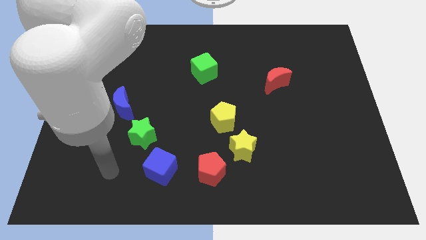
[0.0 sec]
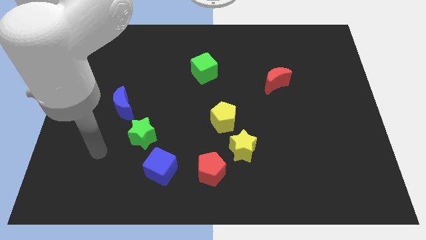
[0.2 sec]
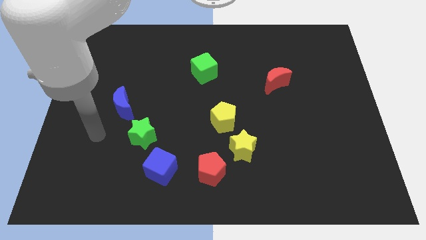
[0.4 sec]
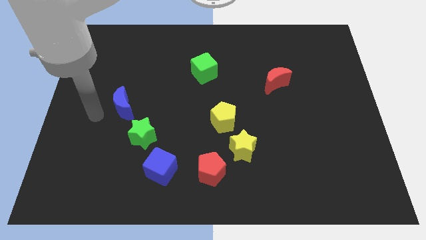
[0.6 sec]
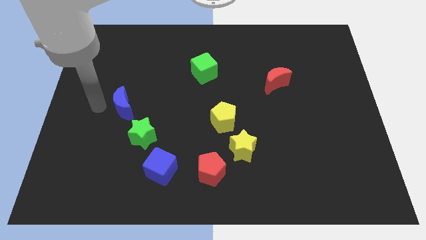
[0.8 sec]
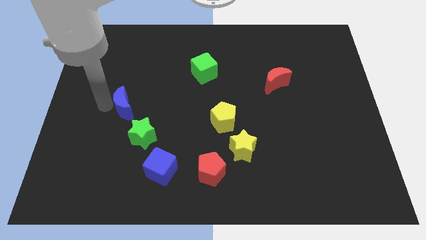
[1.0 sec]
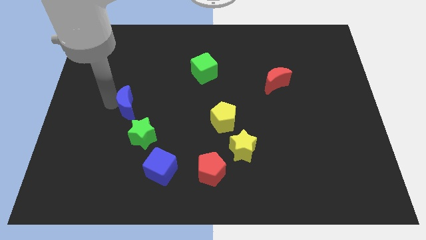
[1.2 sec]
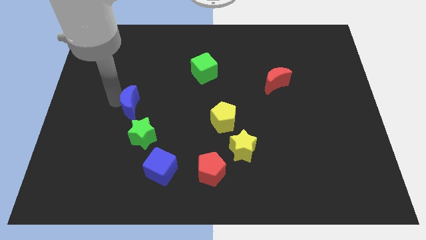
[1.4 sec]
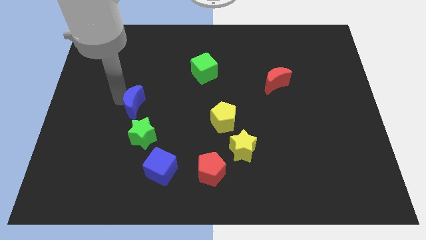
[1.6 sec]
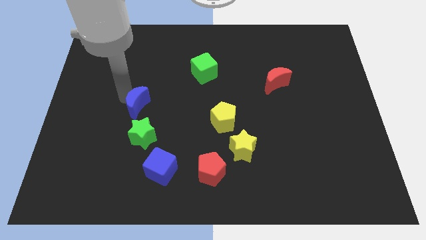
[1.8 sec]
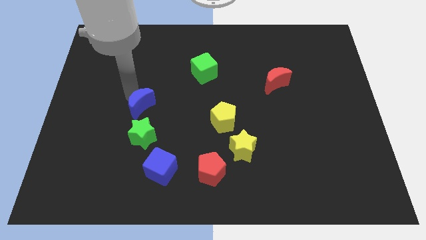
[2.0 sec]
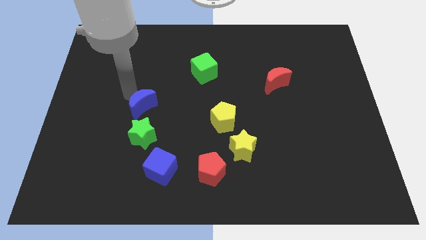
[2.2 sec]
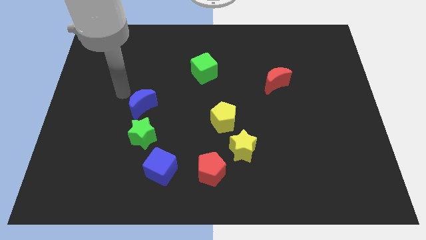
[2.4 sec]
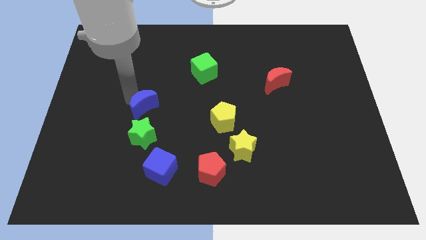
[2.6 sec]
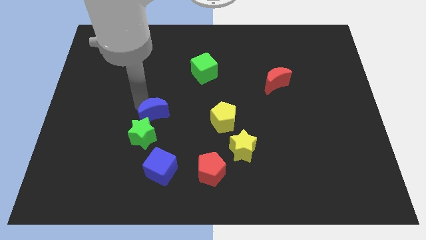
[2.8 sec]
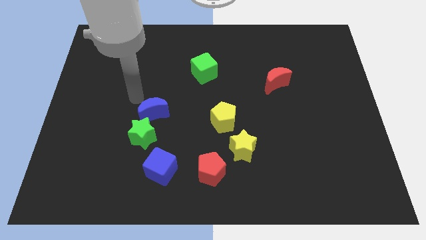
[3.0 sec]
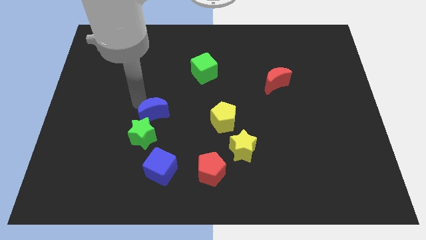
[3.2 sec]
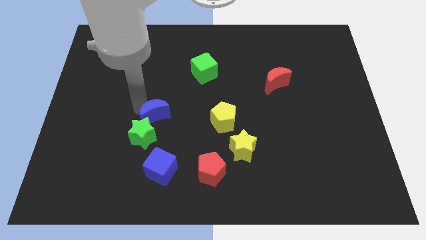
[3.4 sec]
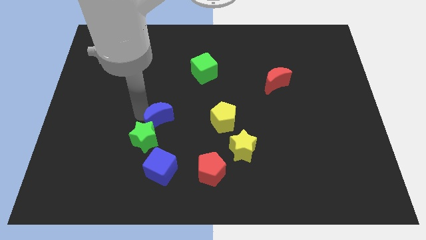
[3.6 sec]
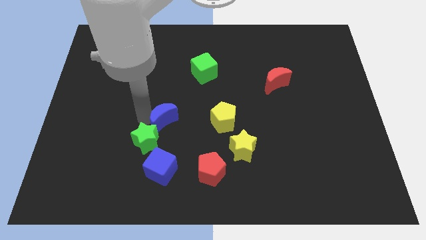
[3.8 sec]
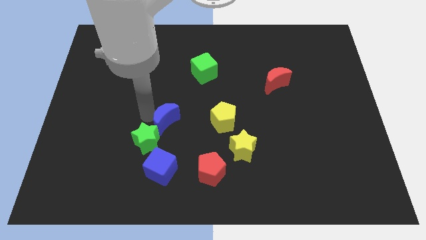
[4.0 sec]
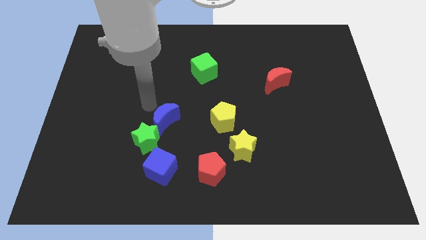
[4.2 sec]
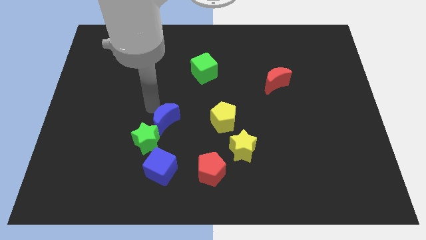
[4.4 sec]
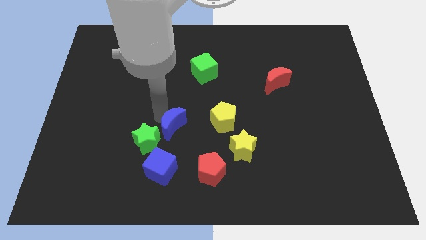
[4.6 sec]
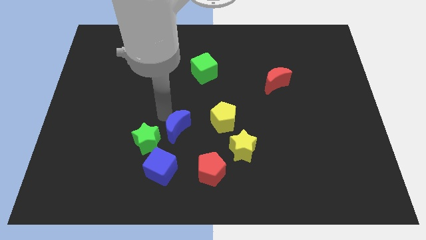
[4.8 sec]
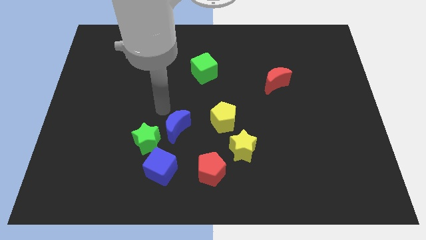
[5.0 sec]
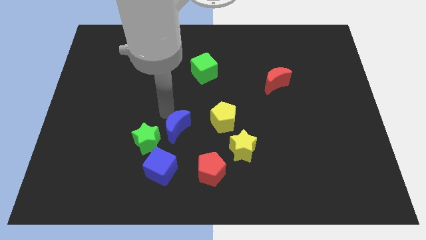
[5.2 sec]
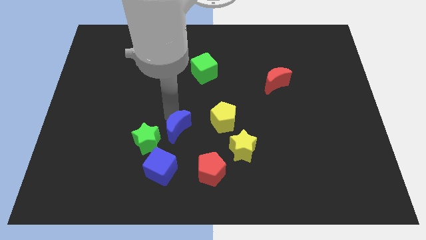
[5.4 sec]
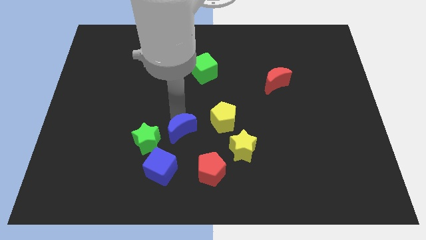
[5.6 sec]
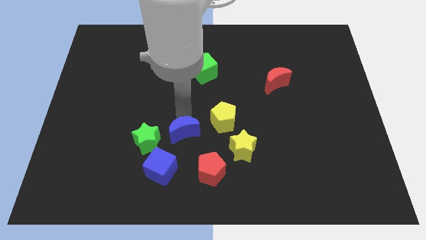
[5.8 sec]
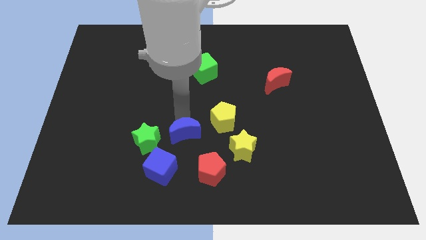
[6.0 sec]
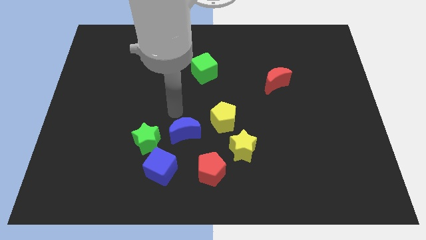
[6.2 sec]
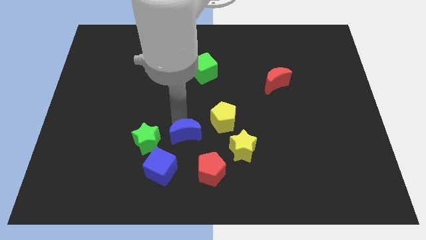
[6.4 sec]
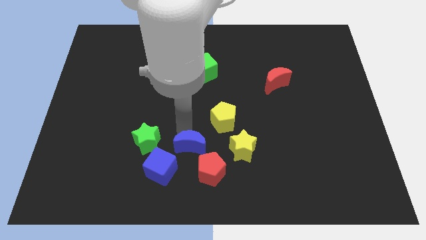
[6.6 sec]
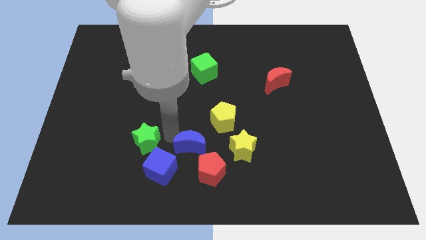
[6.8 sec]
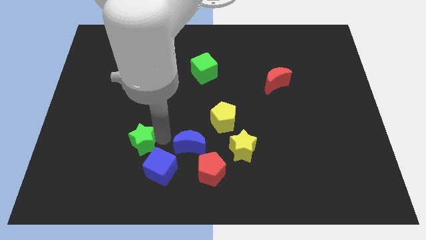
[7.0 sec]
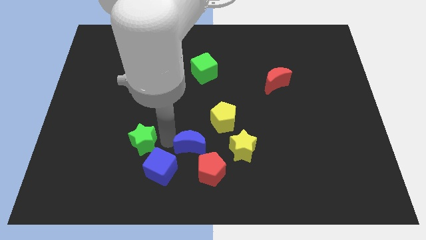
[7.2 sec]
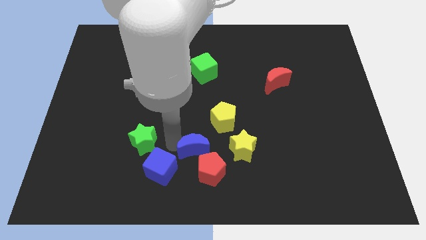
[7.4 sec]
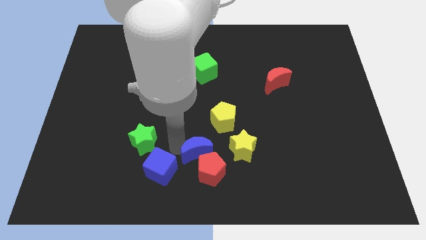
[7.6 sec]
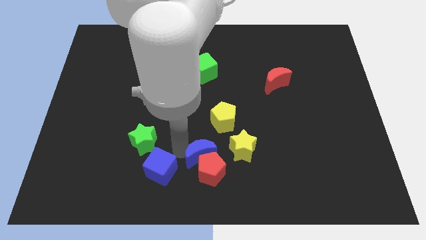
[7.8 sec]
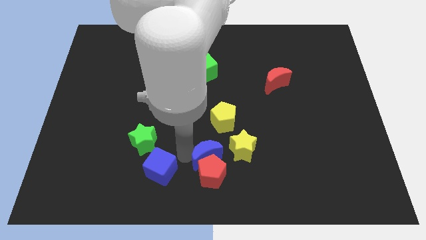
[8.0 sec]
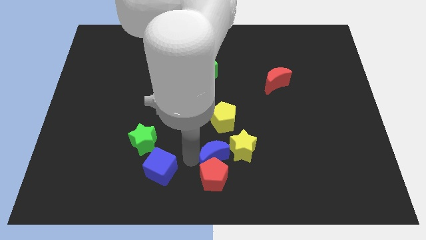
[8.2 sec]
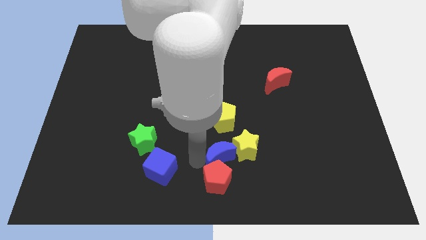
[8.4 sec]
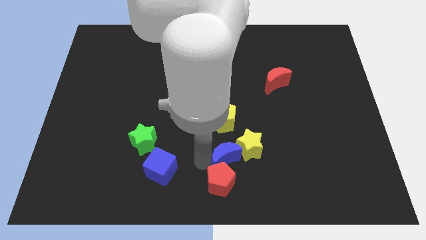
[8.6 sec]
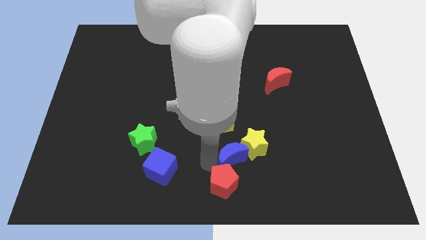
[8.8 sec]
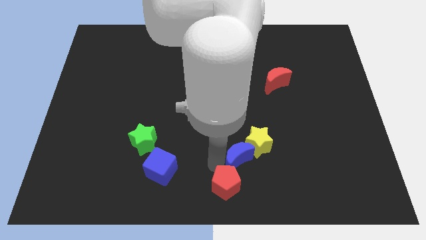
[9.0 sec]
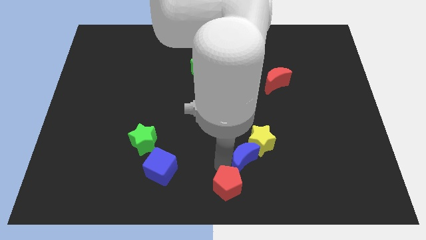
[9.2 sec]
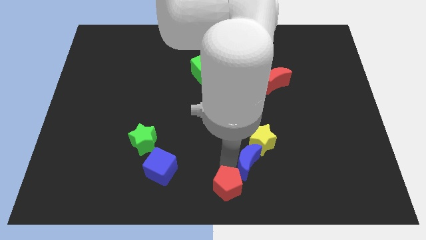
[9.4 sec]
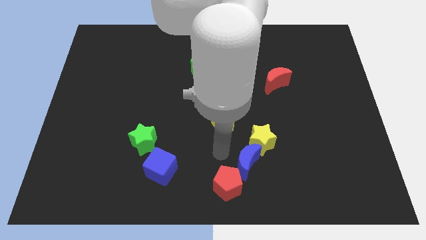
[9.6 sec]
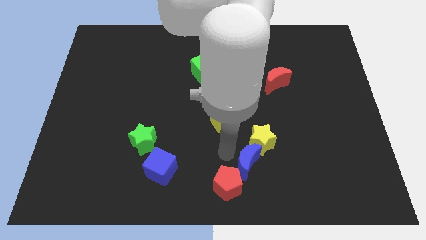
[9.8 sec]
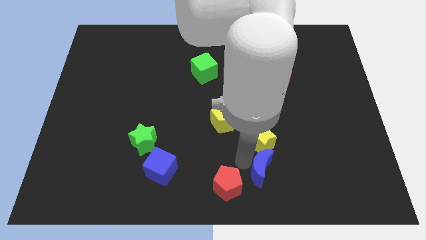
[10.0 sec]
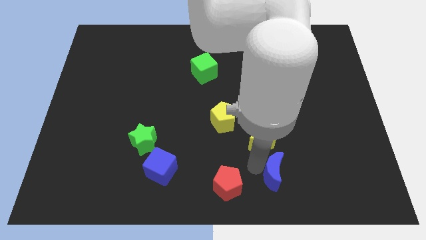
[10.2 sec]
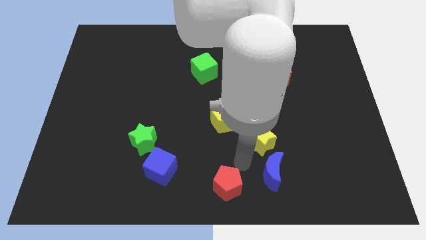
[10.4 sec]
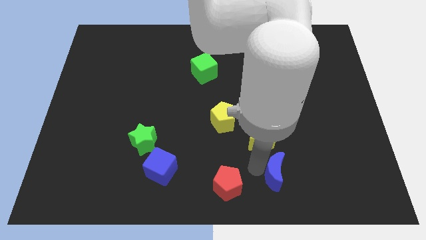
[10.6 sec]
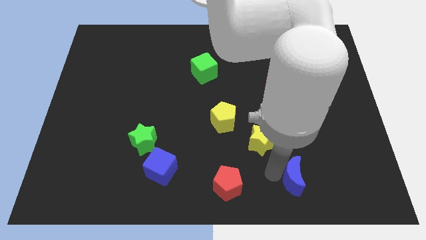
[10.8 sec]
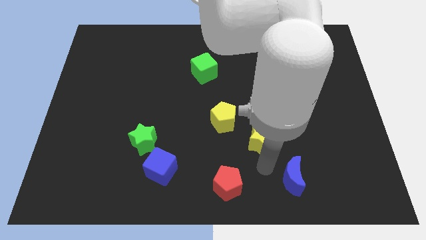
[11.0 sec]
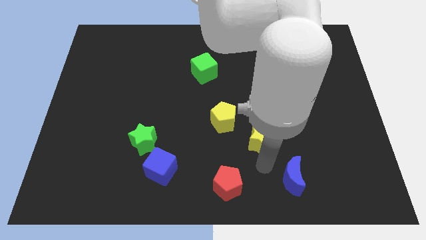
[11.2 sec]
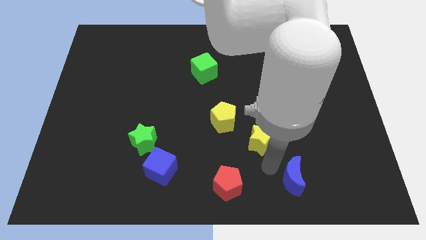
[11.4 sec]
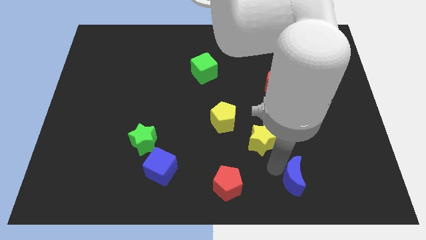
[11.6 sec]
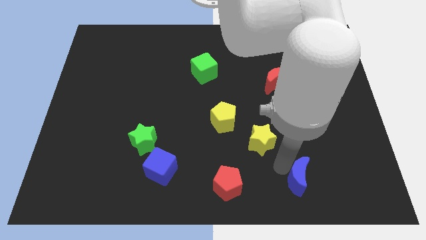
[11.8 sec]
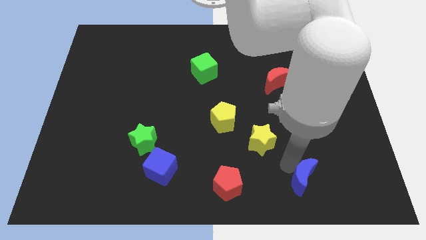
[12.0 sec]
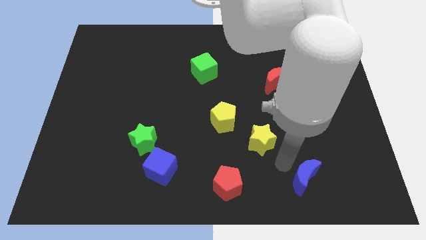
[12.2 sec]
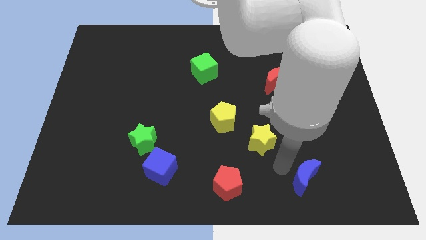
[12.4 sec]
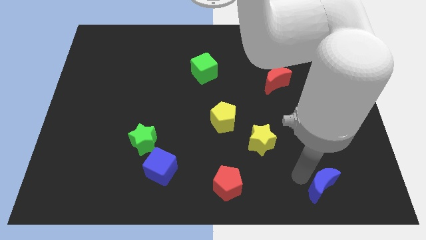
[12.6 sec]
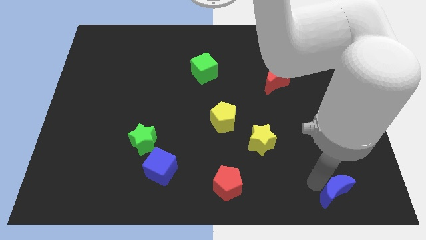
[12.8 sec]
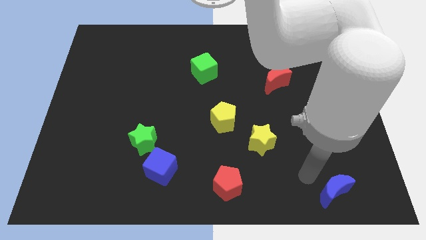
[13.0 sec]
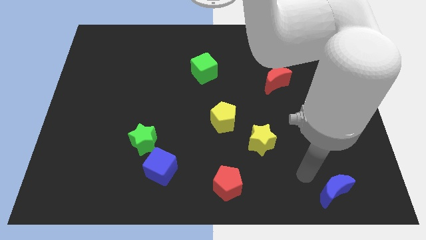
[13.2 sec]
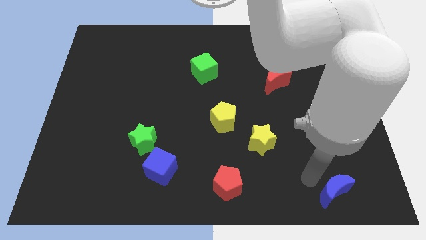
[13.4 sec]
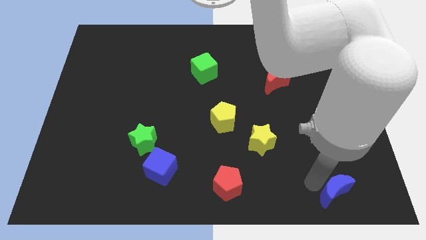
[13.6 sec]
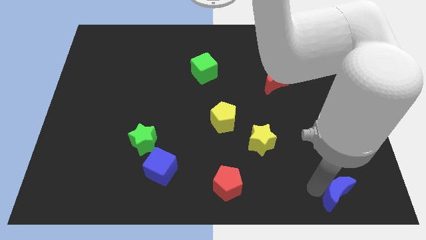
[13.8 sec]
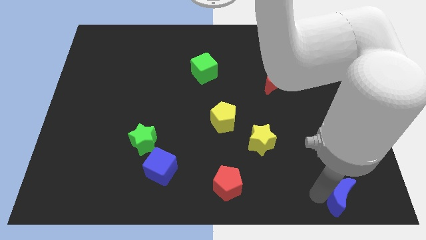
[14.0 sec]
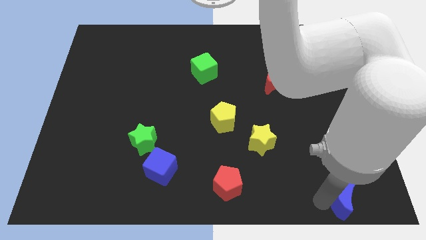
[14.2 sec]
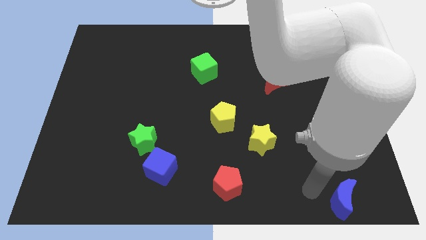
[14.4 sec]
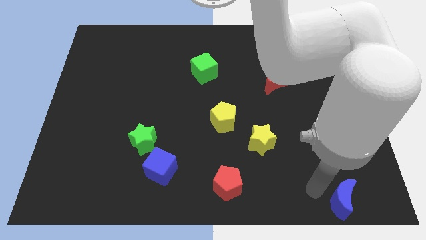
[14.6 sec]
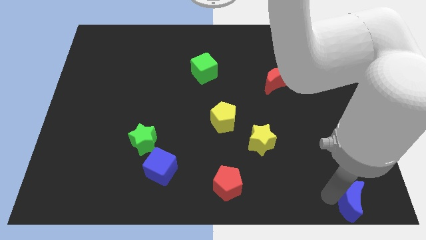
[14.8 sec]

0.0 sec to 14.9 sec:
move the blue moon to the bottom right corner
